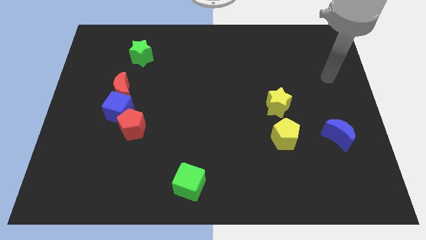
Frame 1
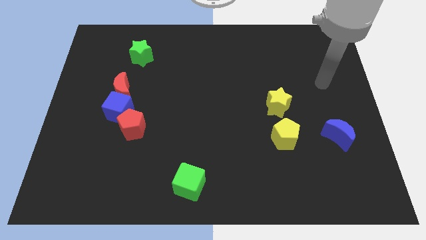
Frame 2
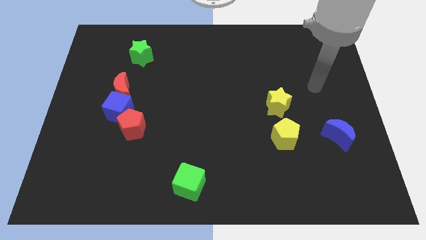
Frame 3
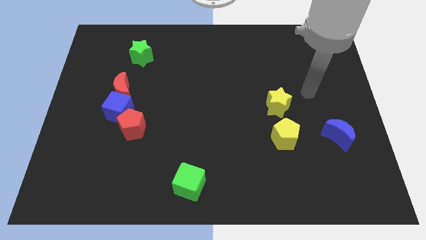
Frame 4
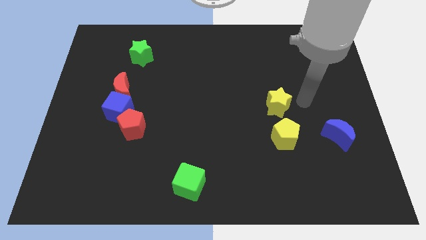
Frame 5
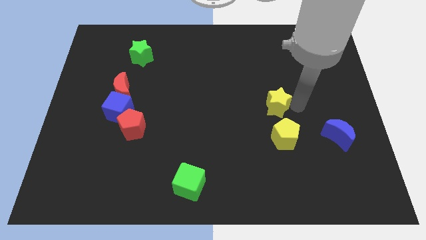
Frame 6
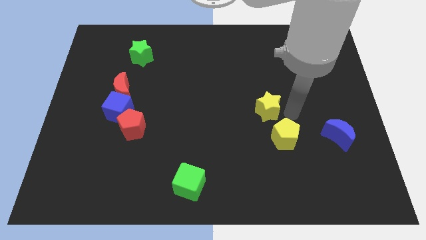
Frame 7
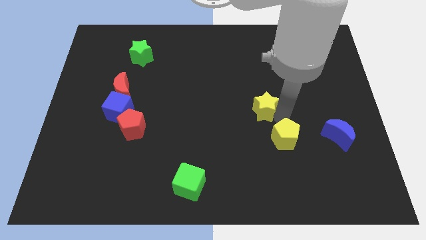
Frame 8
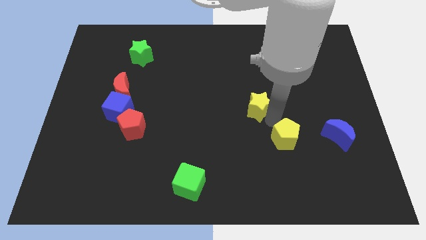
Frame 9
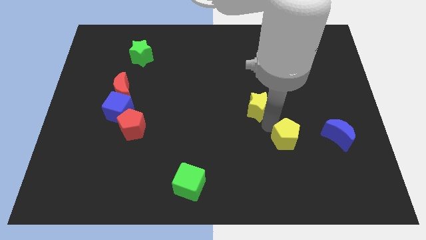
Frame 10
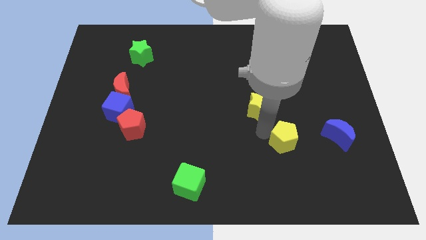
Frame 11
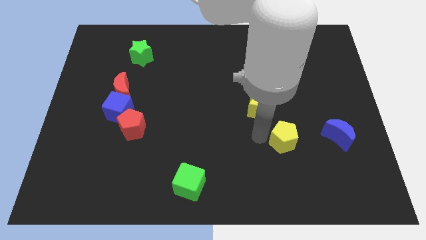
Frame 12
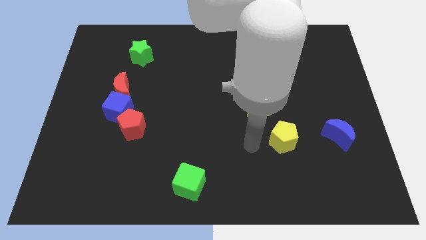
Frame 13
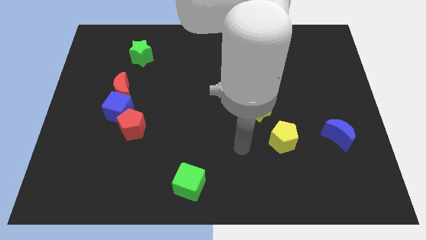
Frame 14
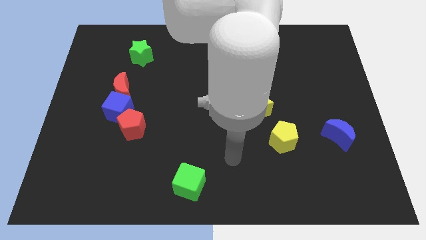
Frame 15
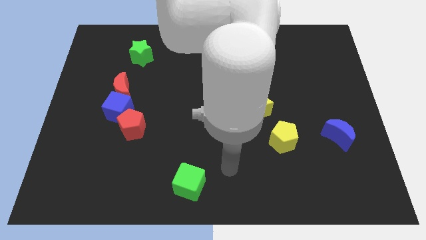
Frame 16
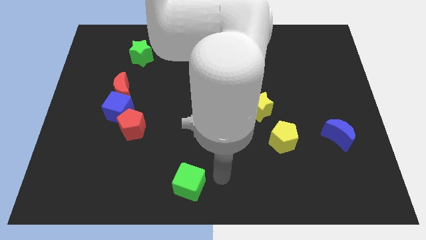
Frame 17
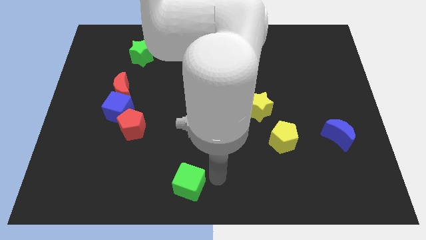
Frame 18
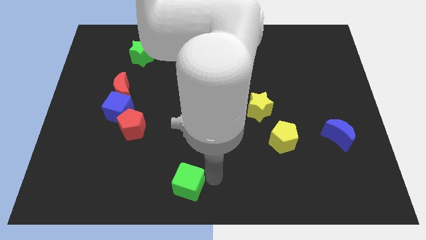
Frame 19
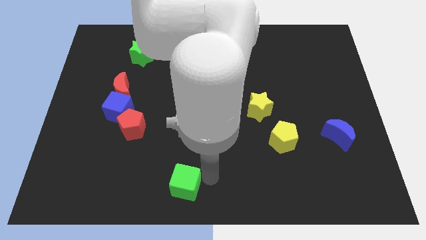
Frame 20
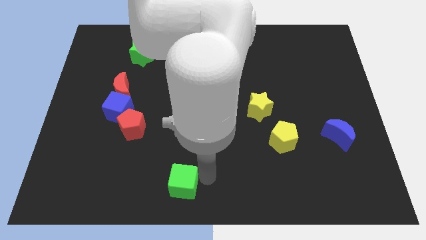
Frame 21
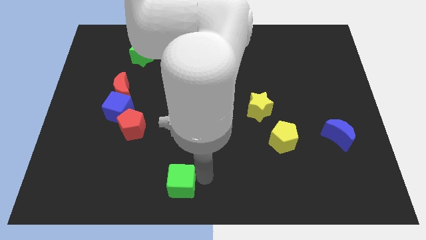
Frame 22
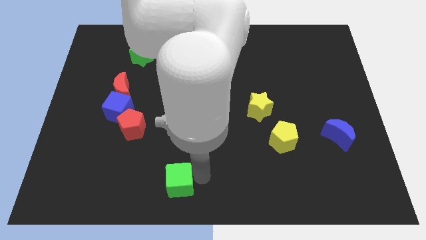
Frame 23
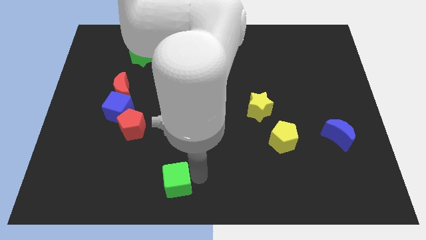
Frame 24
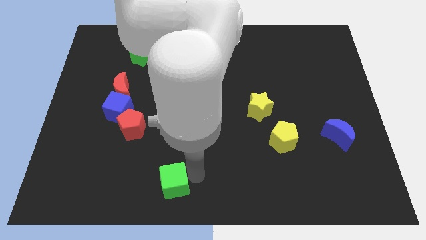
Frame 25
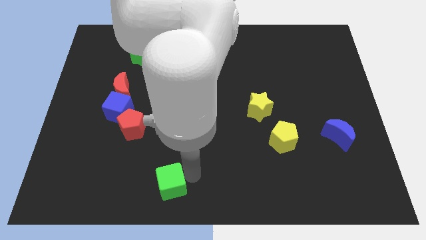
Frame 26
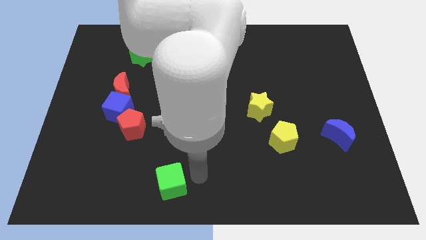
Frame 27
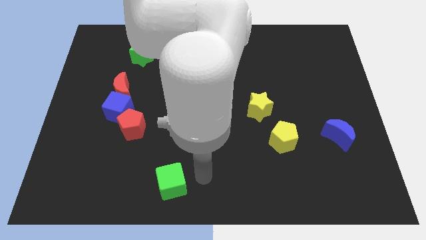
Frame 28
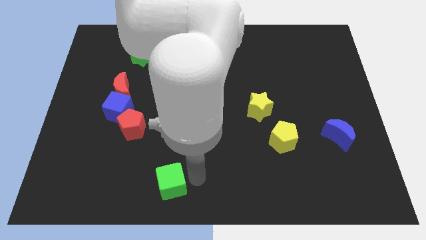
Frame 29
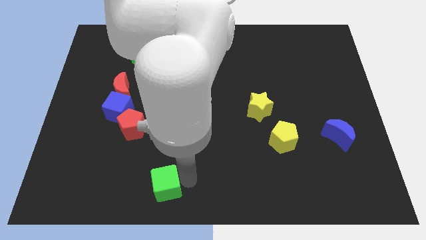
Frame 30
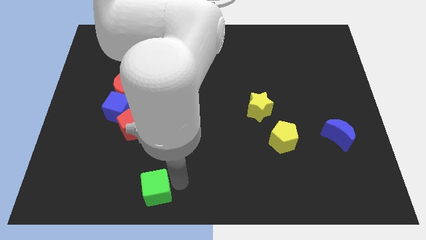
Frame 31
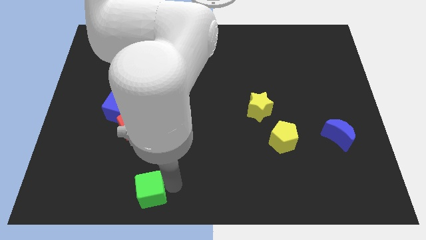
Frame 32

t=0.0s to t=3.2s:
push the green cube left slightly

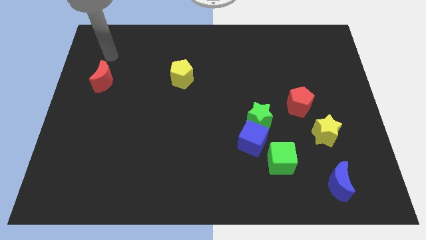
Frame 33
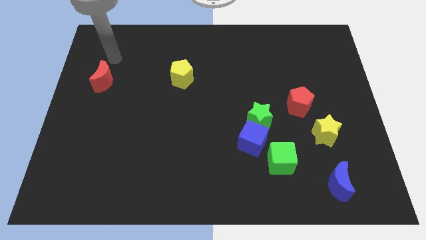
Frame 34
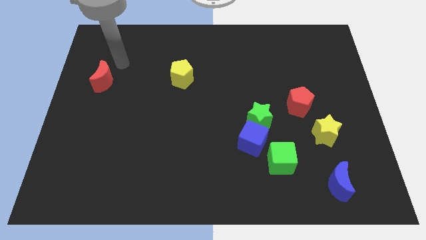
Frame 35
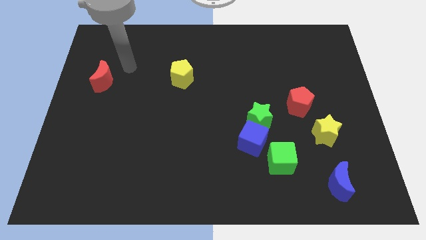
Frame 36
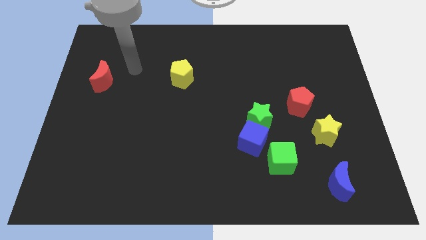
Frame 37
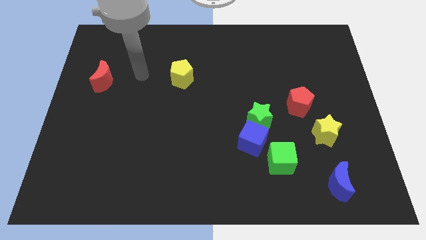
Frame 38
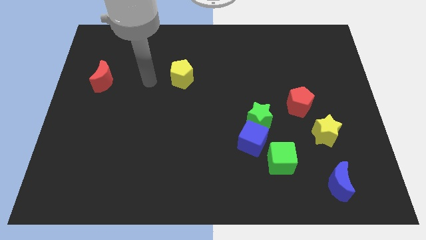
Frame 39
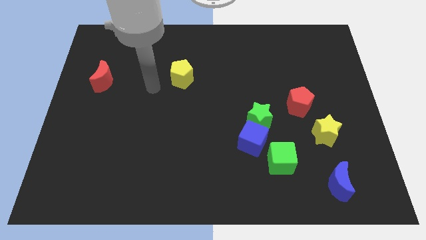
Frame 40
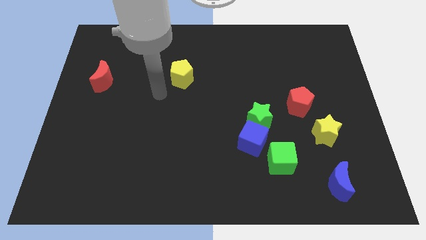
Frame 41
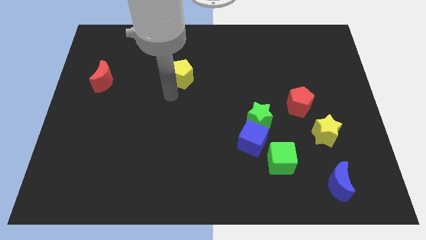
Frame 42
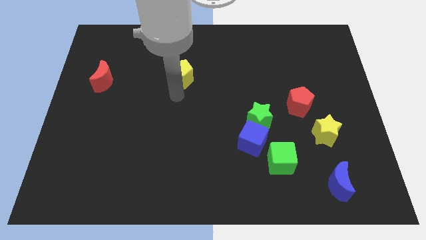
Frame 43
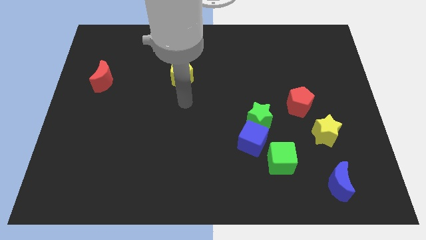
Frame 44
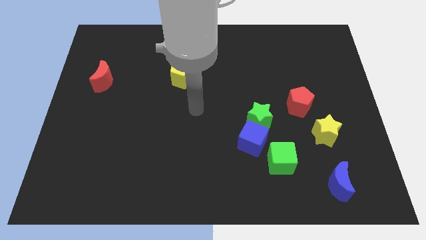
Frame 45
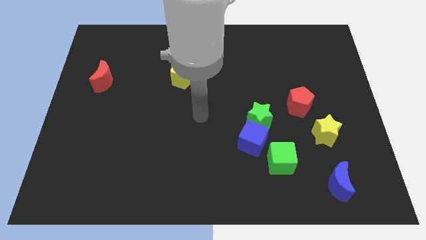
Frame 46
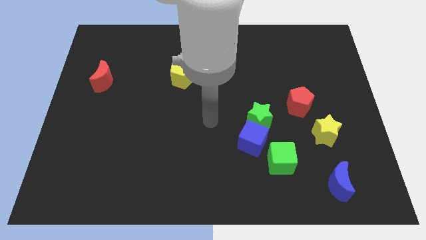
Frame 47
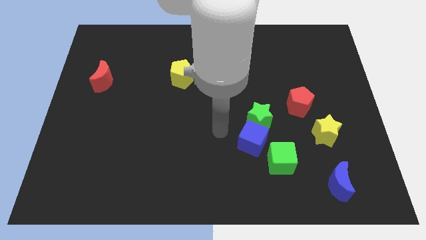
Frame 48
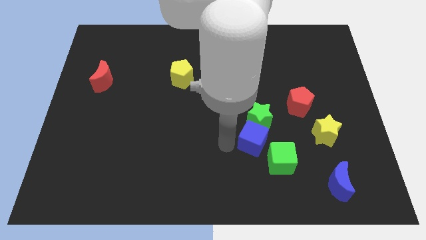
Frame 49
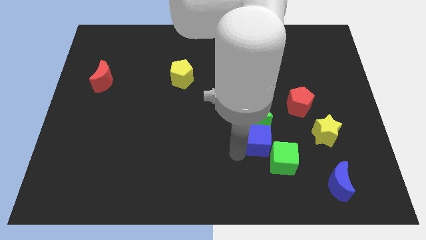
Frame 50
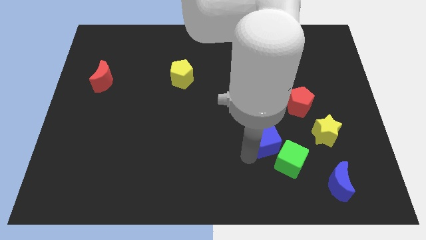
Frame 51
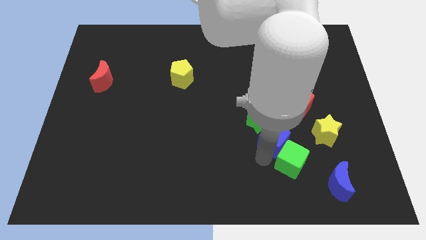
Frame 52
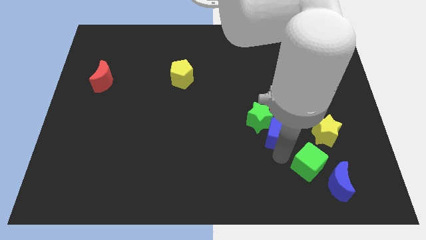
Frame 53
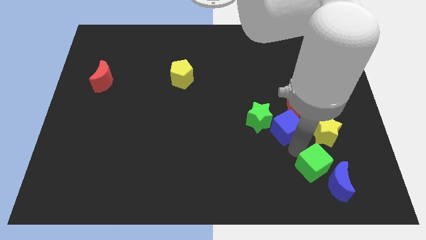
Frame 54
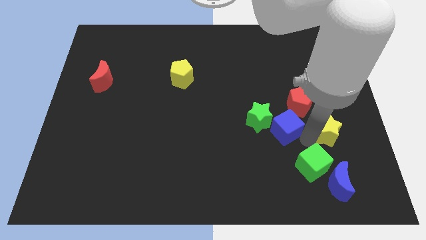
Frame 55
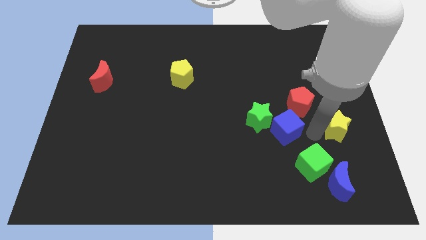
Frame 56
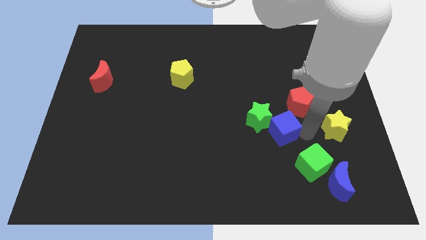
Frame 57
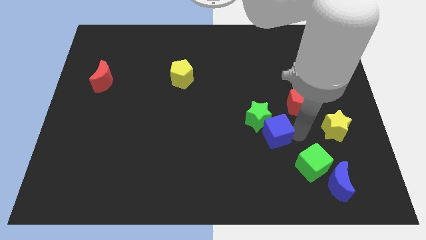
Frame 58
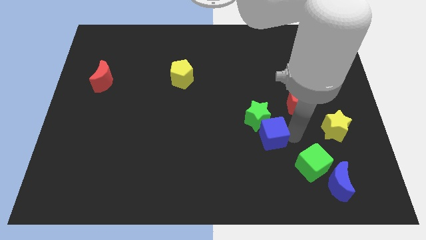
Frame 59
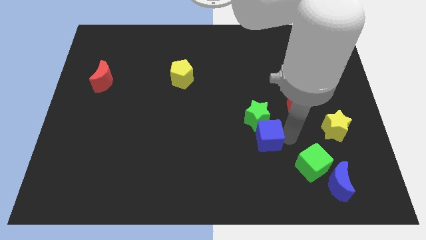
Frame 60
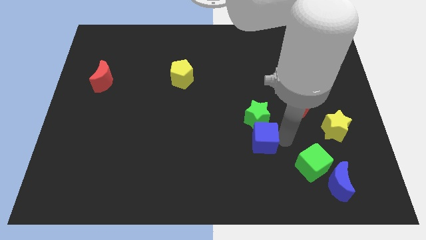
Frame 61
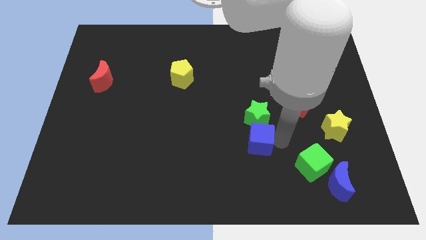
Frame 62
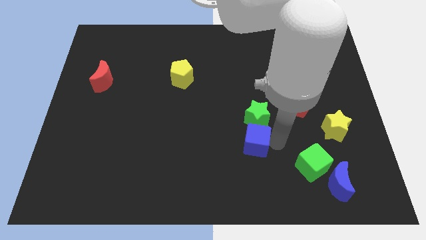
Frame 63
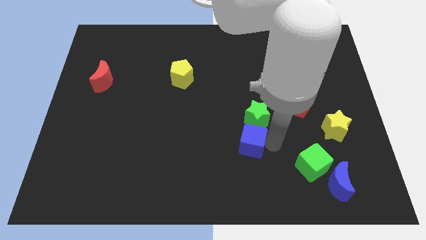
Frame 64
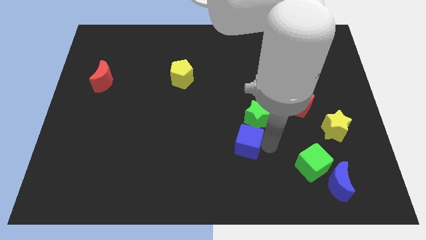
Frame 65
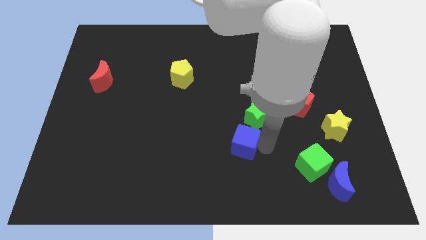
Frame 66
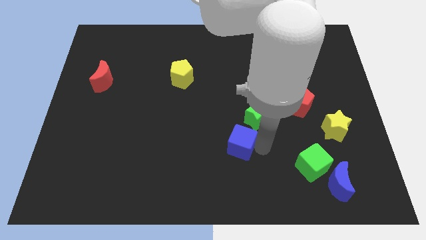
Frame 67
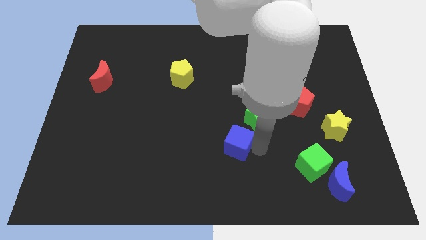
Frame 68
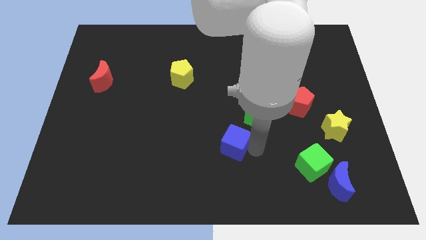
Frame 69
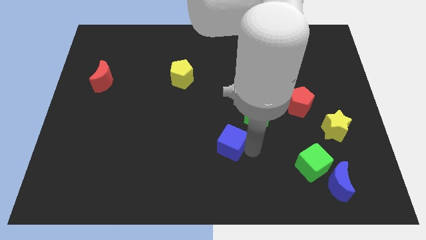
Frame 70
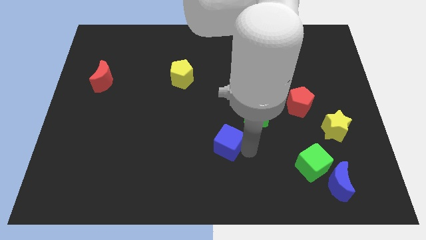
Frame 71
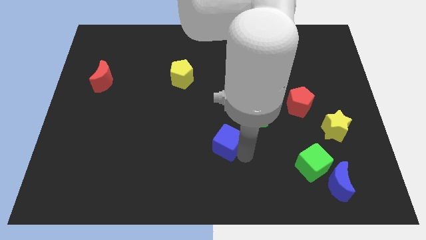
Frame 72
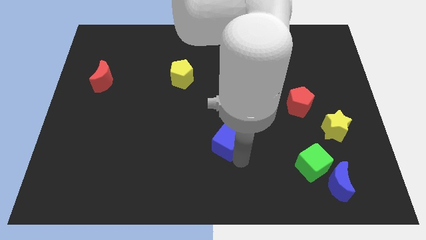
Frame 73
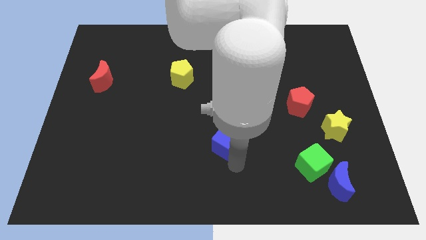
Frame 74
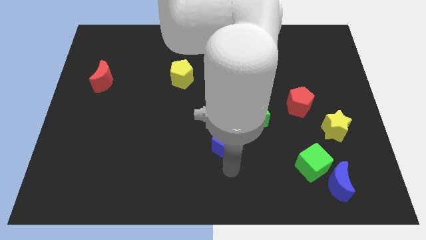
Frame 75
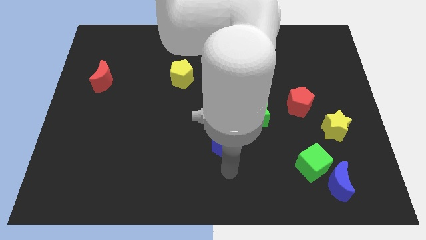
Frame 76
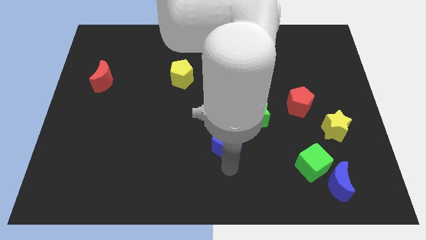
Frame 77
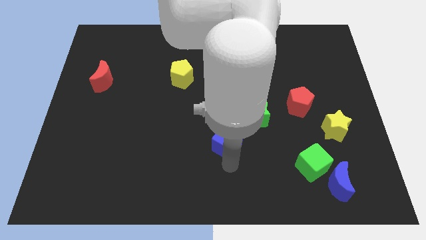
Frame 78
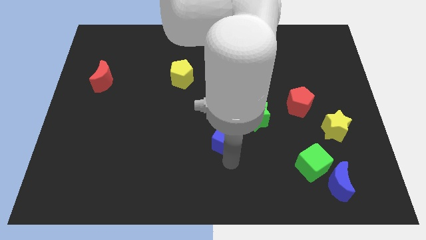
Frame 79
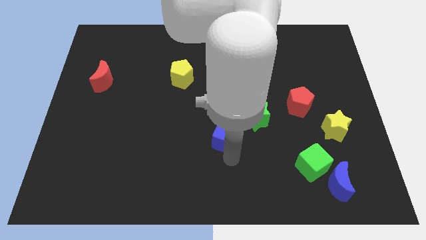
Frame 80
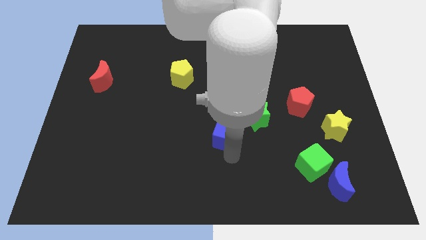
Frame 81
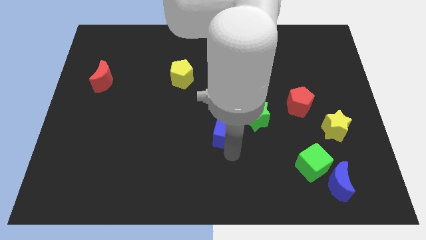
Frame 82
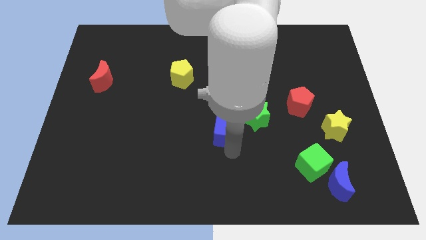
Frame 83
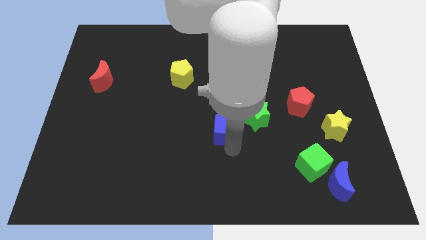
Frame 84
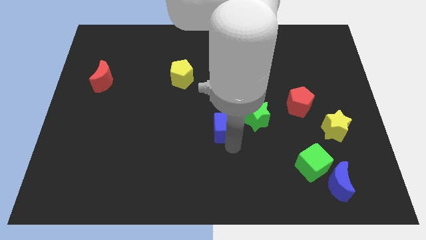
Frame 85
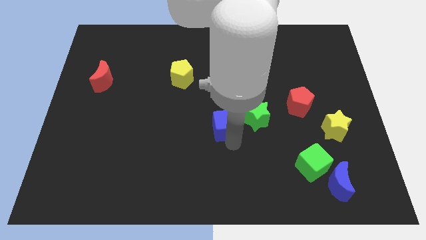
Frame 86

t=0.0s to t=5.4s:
slightly move the blue cube upwards and to the left diagonally
